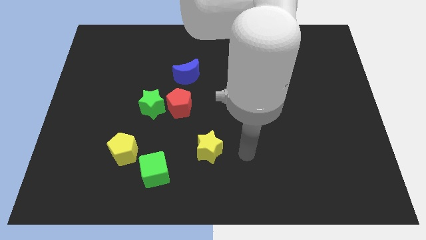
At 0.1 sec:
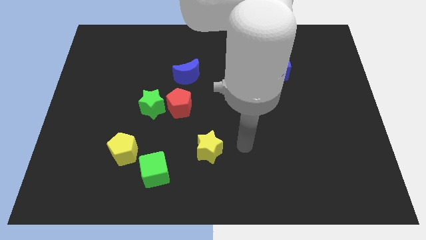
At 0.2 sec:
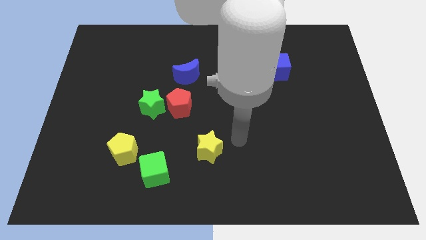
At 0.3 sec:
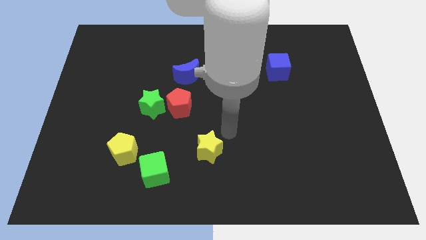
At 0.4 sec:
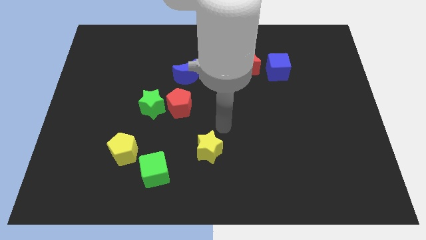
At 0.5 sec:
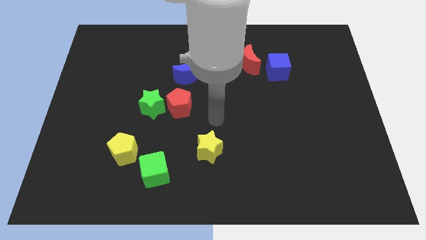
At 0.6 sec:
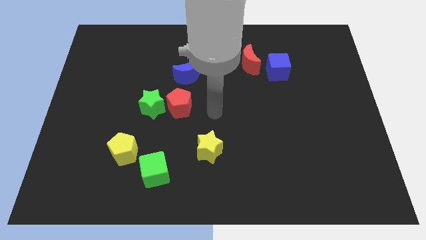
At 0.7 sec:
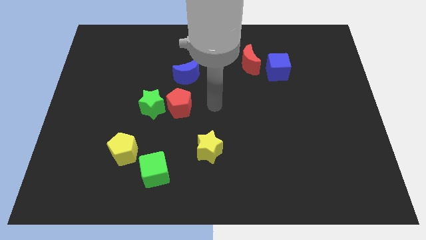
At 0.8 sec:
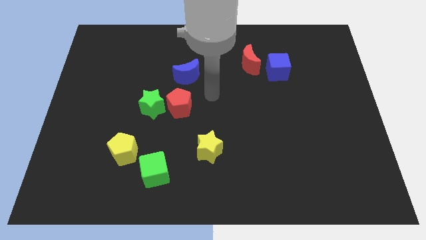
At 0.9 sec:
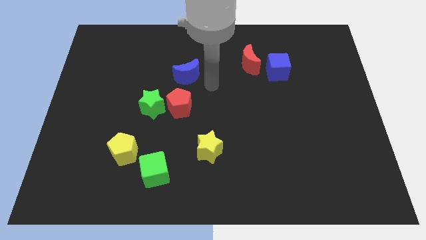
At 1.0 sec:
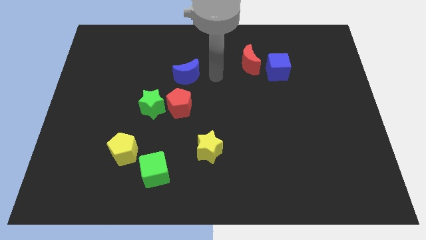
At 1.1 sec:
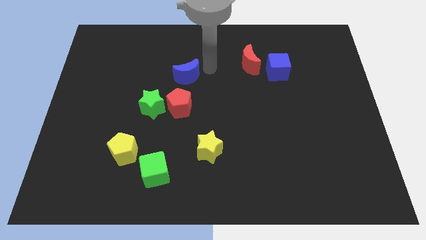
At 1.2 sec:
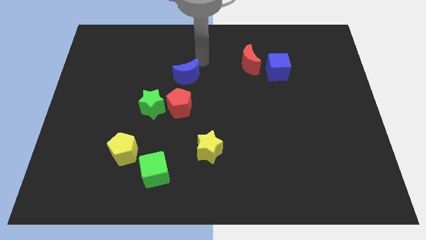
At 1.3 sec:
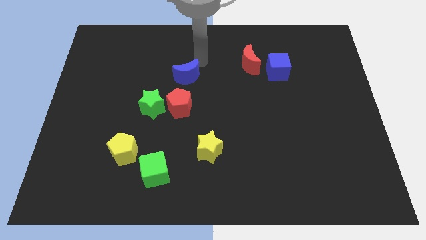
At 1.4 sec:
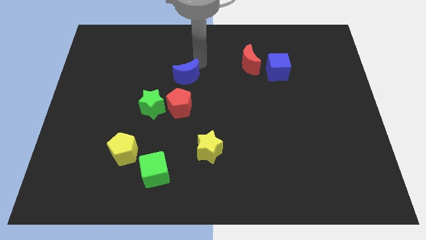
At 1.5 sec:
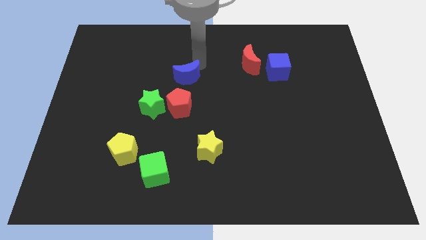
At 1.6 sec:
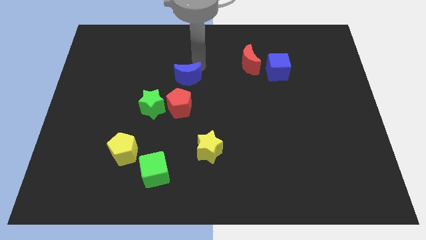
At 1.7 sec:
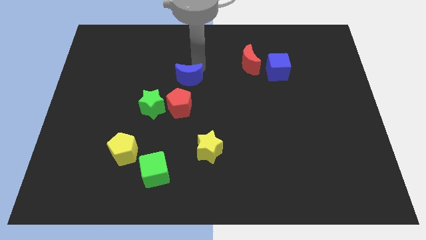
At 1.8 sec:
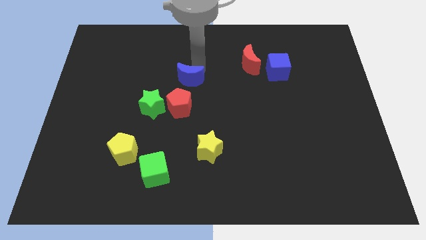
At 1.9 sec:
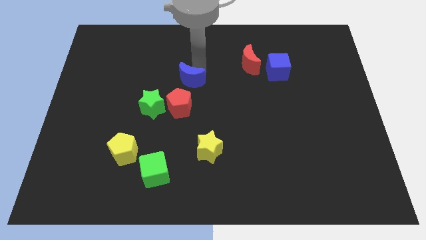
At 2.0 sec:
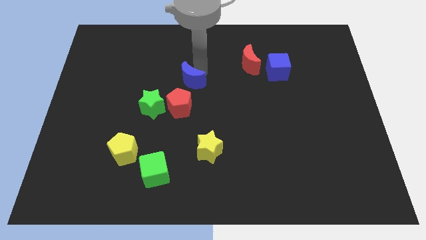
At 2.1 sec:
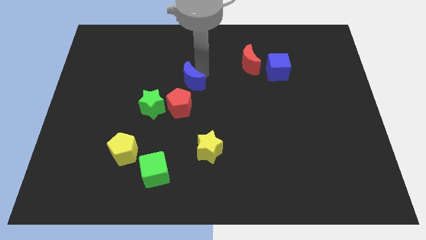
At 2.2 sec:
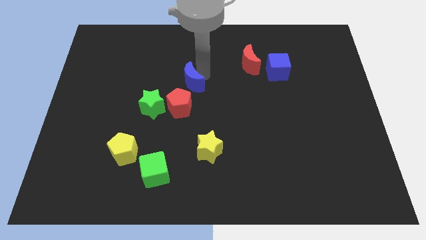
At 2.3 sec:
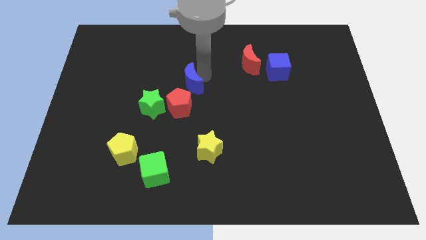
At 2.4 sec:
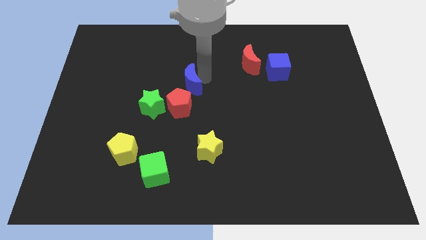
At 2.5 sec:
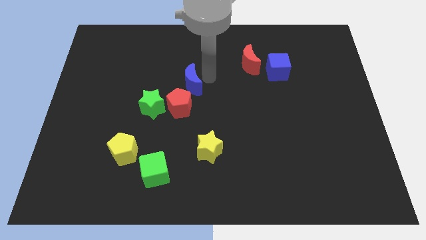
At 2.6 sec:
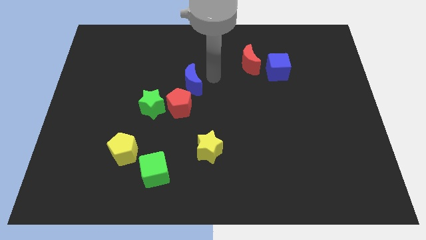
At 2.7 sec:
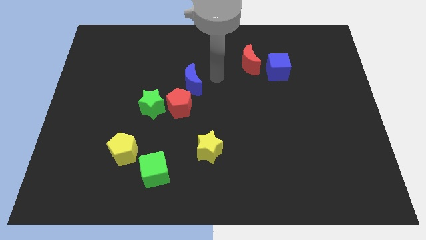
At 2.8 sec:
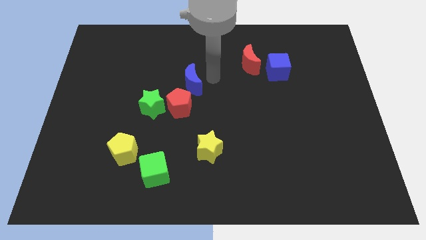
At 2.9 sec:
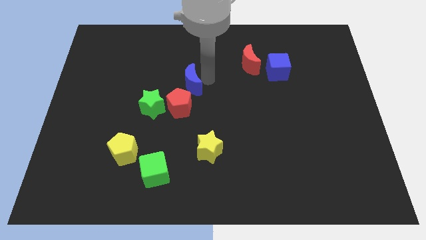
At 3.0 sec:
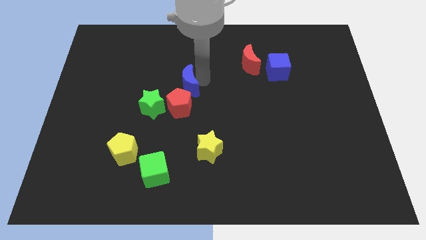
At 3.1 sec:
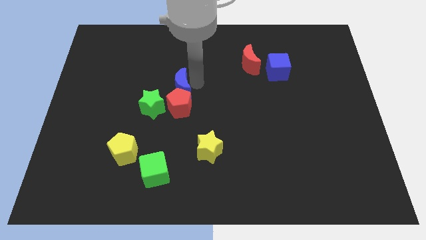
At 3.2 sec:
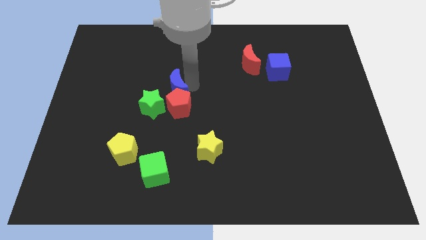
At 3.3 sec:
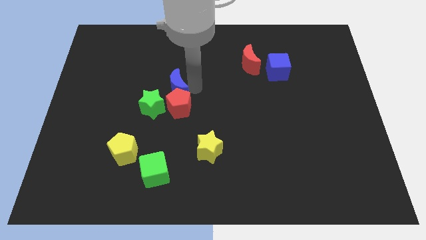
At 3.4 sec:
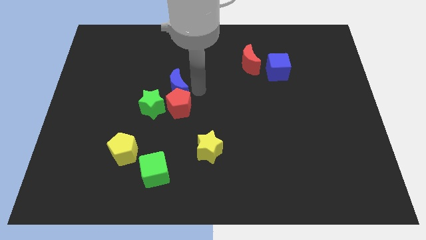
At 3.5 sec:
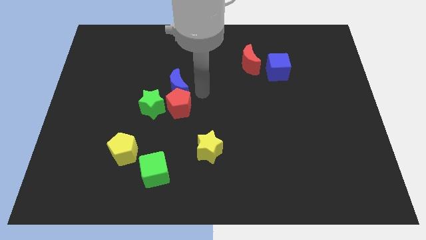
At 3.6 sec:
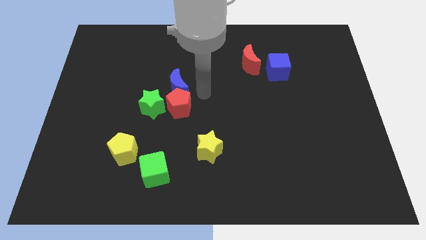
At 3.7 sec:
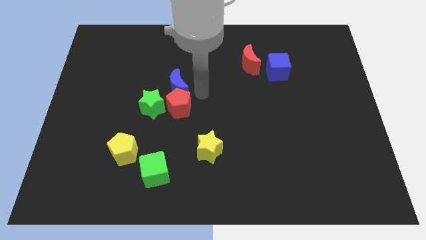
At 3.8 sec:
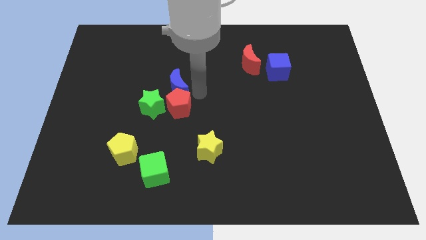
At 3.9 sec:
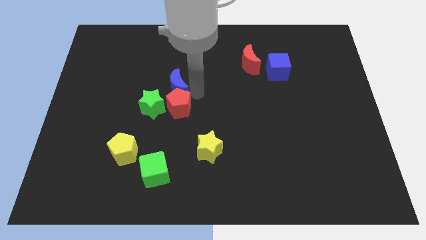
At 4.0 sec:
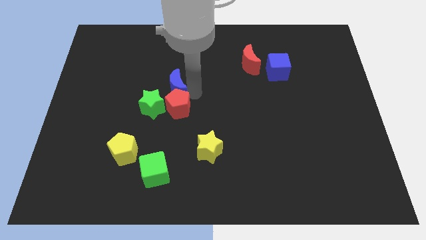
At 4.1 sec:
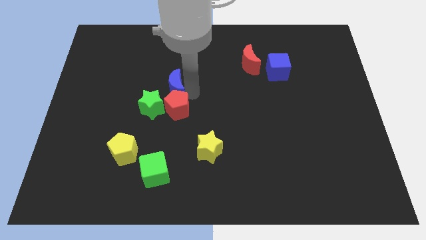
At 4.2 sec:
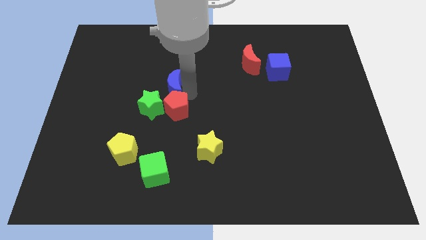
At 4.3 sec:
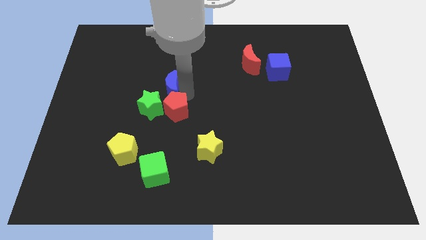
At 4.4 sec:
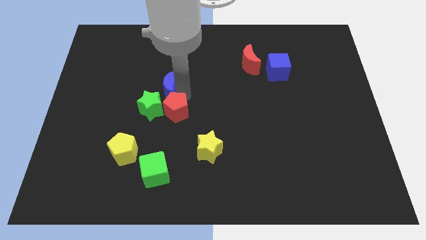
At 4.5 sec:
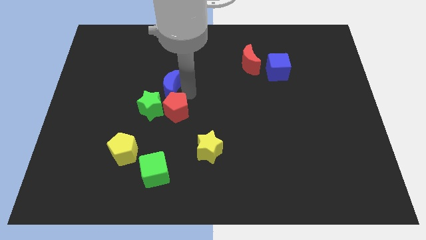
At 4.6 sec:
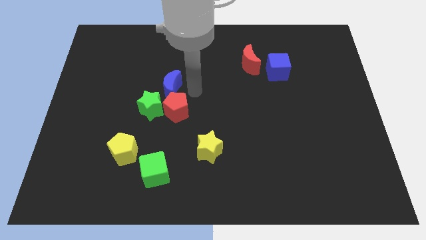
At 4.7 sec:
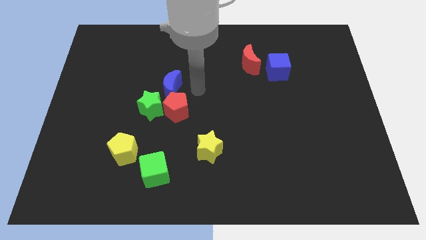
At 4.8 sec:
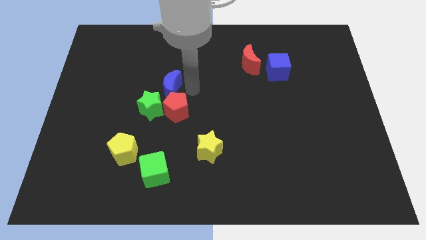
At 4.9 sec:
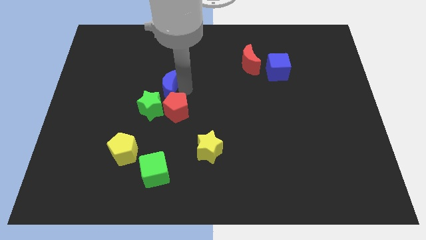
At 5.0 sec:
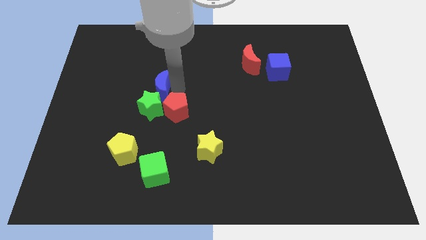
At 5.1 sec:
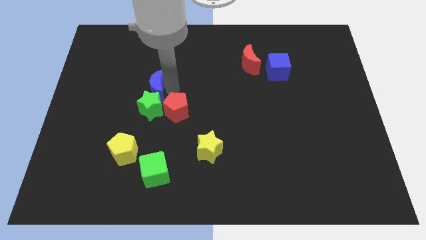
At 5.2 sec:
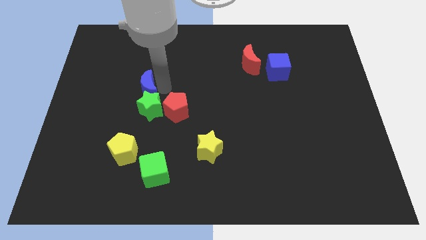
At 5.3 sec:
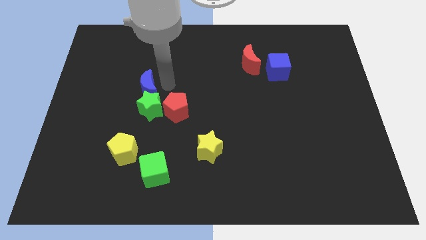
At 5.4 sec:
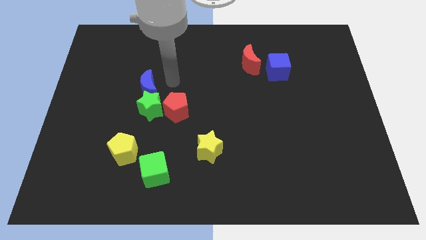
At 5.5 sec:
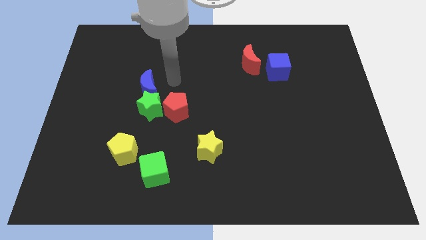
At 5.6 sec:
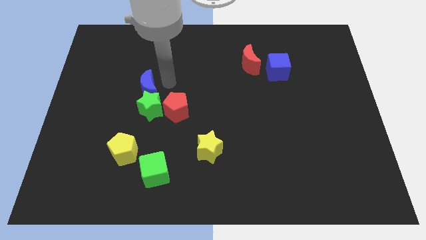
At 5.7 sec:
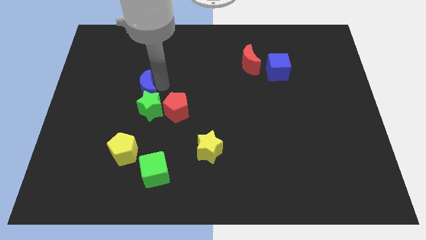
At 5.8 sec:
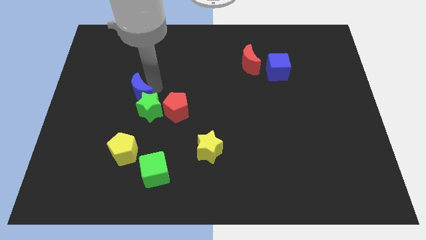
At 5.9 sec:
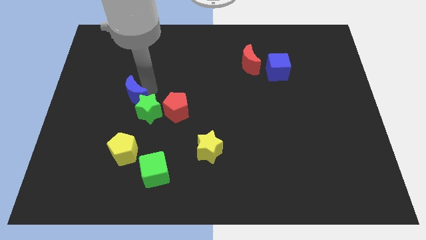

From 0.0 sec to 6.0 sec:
slide the blue moon left of the red pentagon
